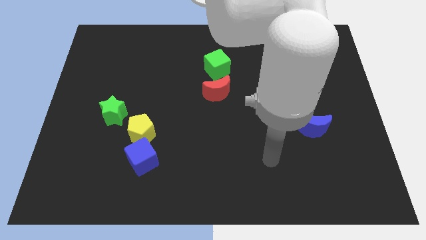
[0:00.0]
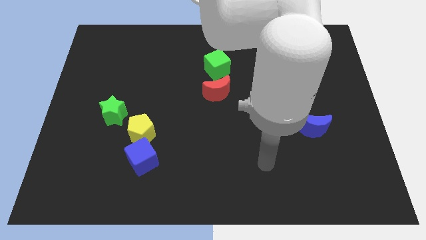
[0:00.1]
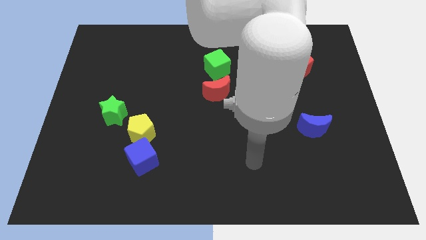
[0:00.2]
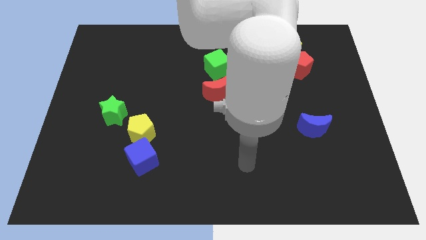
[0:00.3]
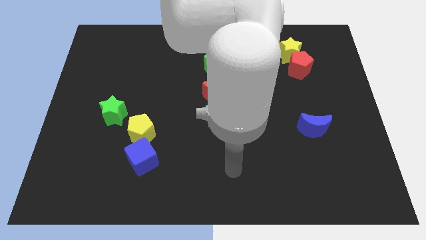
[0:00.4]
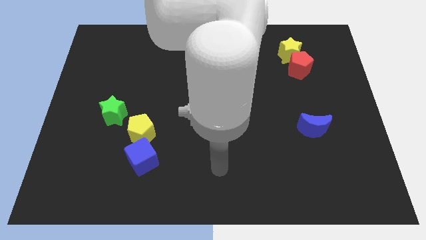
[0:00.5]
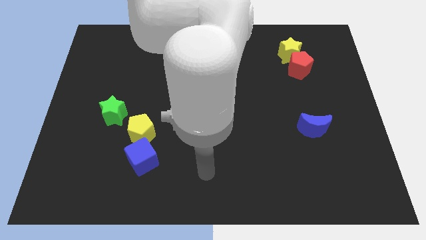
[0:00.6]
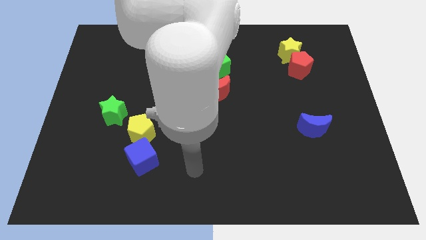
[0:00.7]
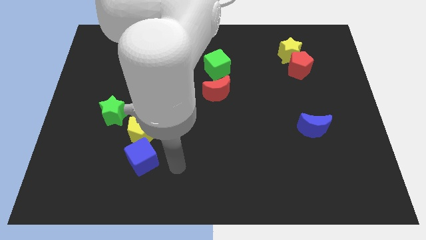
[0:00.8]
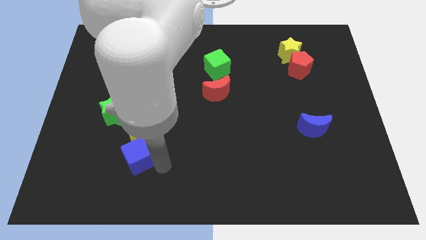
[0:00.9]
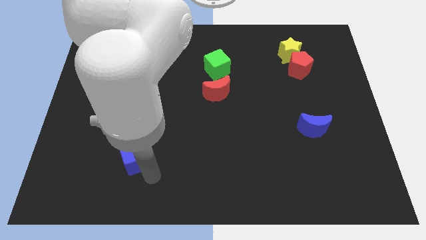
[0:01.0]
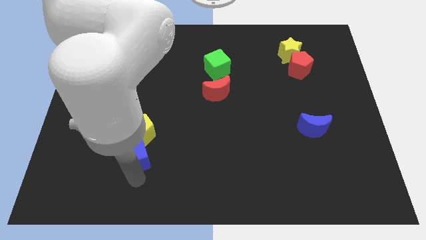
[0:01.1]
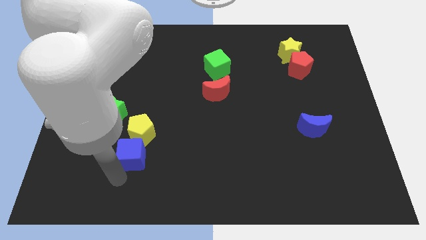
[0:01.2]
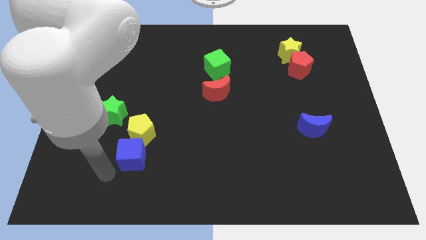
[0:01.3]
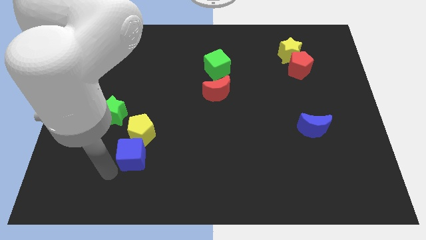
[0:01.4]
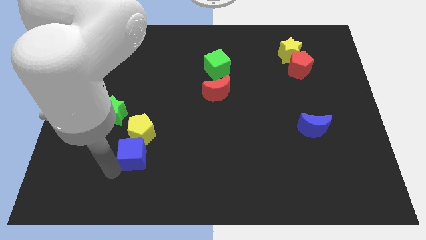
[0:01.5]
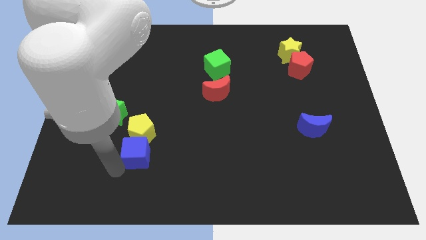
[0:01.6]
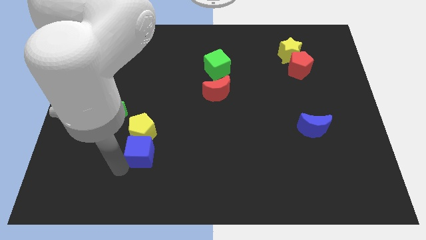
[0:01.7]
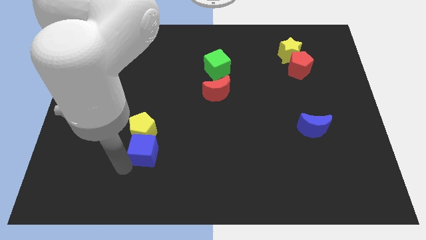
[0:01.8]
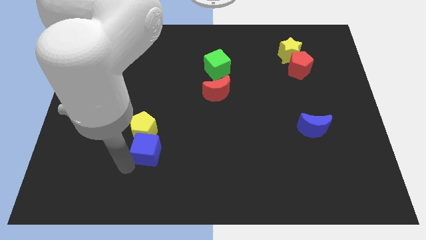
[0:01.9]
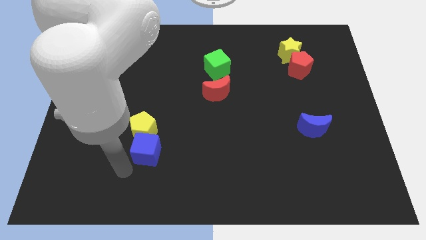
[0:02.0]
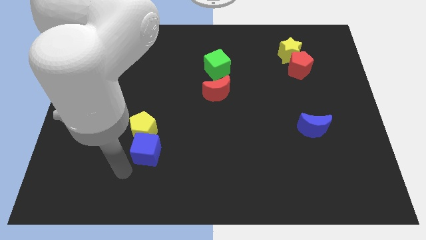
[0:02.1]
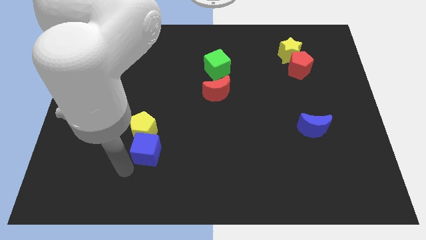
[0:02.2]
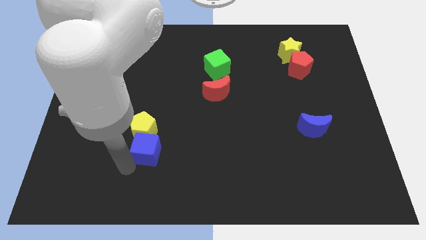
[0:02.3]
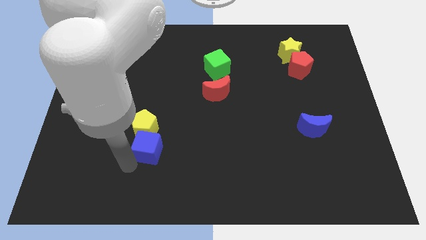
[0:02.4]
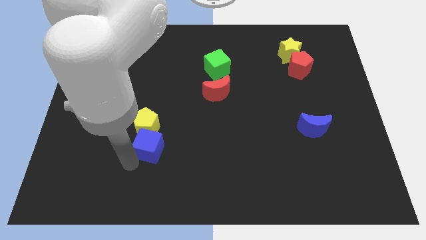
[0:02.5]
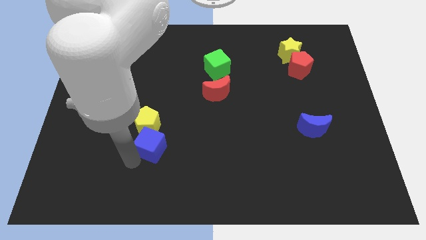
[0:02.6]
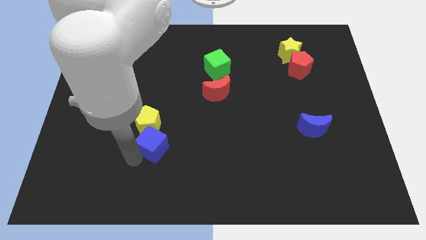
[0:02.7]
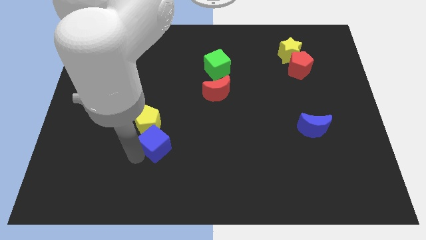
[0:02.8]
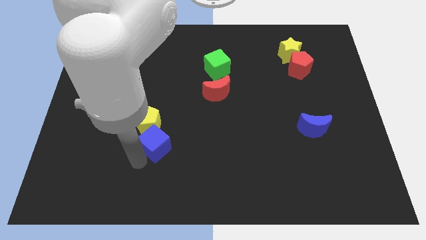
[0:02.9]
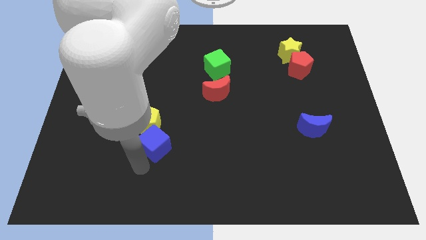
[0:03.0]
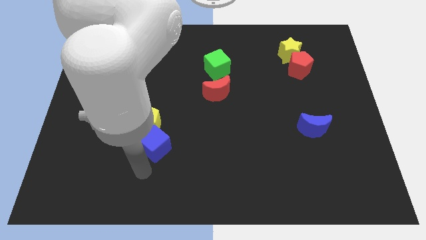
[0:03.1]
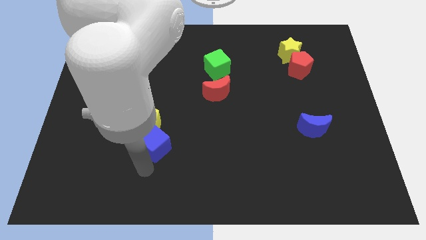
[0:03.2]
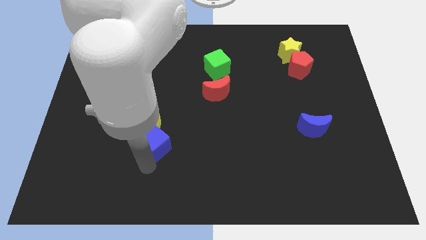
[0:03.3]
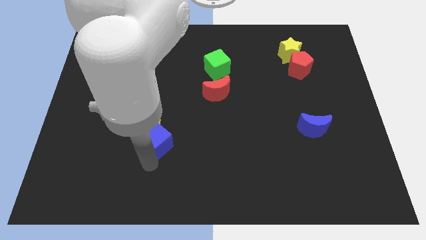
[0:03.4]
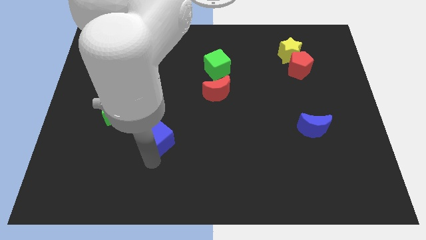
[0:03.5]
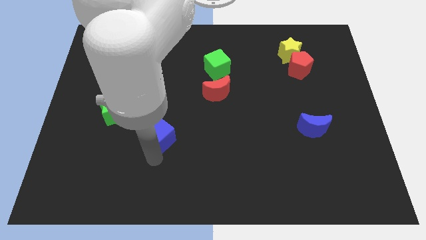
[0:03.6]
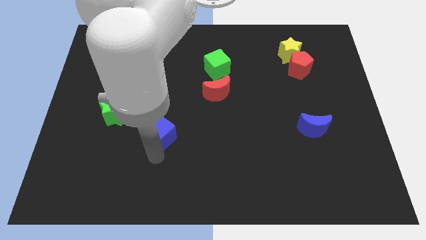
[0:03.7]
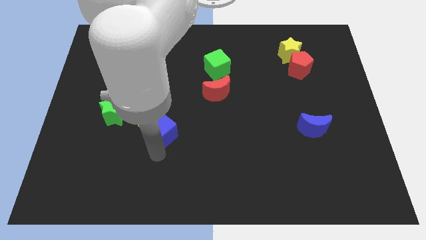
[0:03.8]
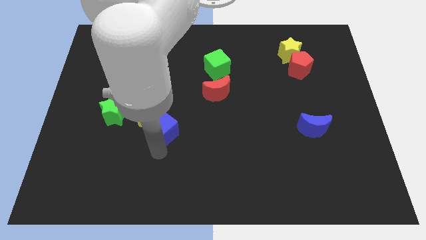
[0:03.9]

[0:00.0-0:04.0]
move the blue cube a little bit up

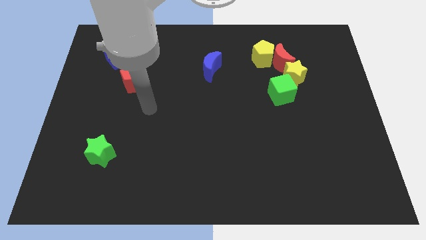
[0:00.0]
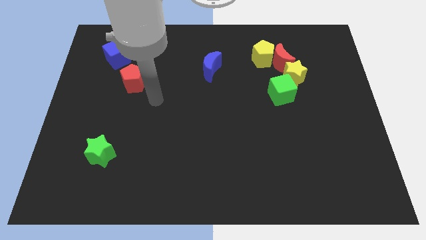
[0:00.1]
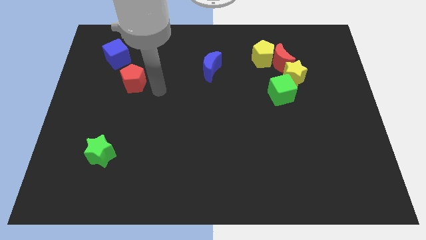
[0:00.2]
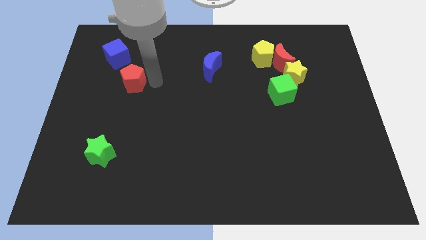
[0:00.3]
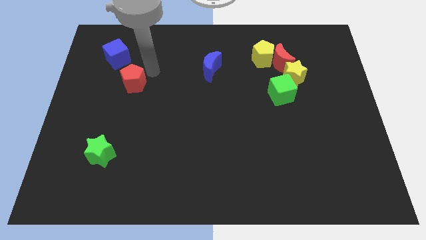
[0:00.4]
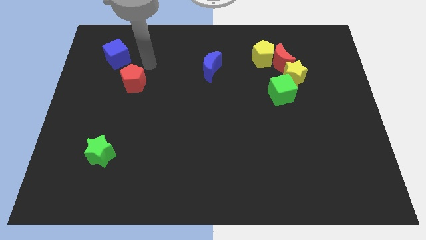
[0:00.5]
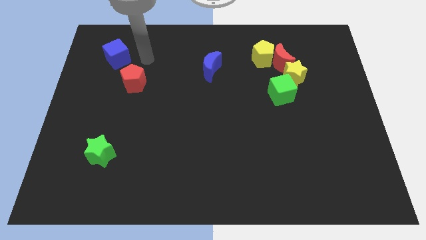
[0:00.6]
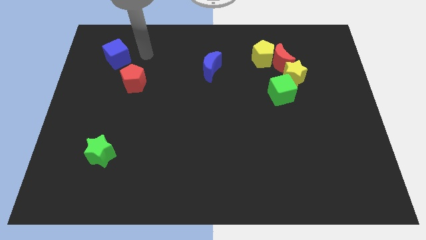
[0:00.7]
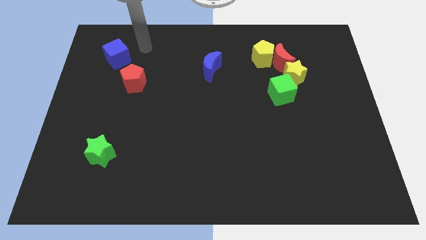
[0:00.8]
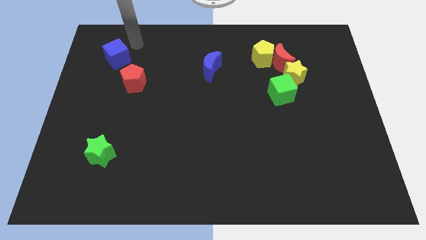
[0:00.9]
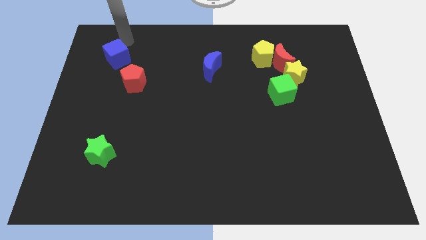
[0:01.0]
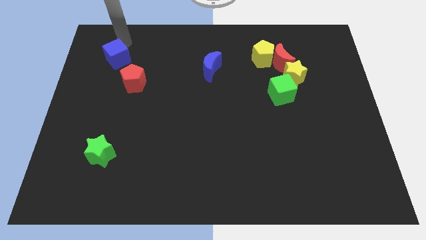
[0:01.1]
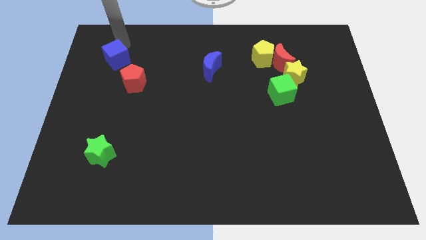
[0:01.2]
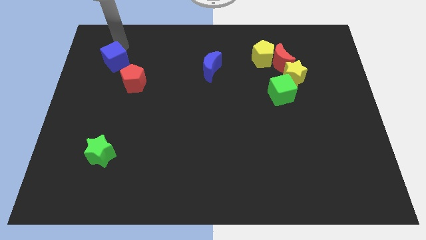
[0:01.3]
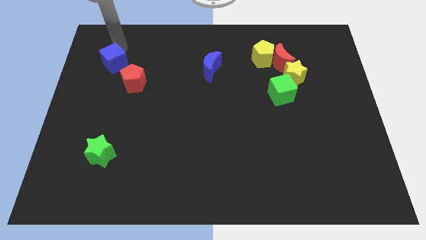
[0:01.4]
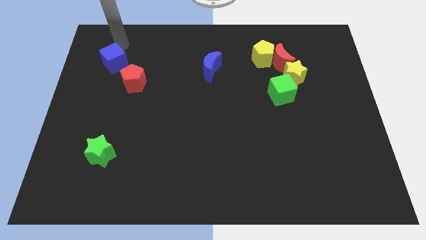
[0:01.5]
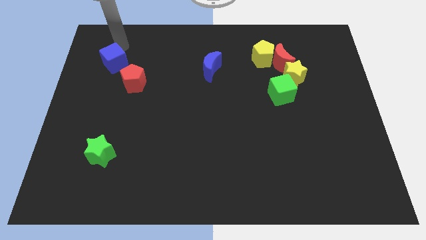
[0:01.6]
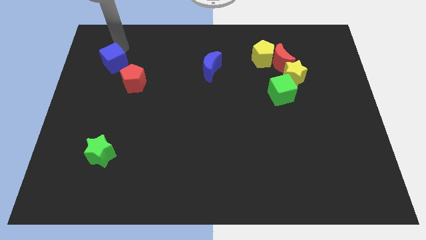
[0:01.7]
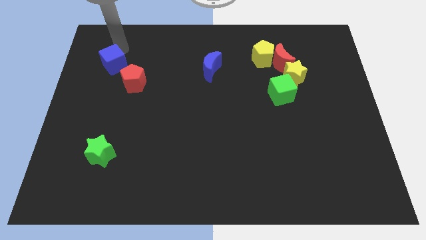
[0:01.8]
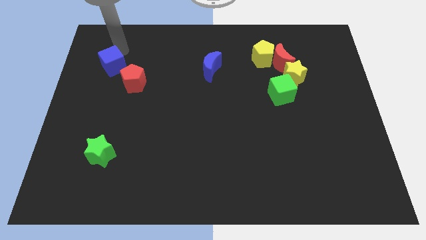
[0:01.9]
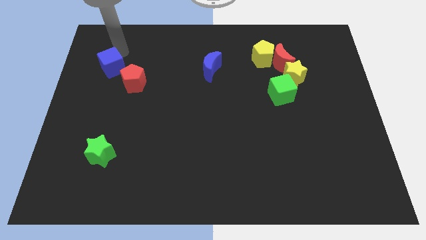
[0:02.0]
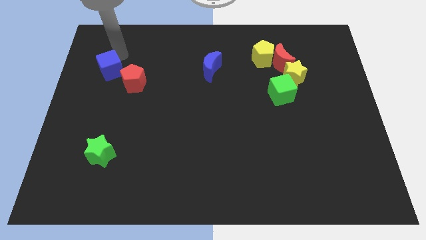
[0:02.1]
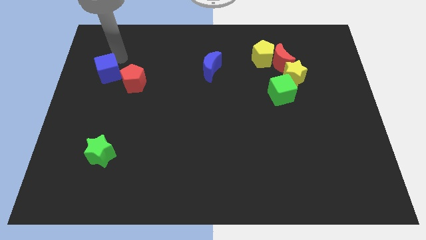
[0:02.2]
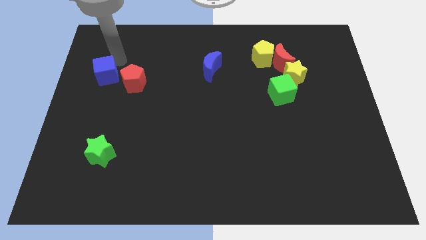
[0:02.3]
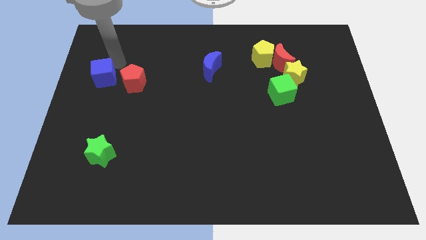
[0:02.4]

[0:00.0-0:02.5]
move the blue cube down slightly

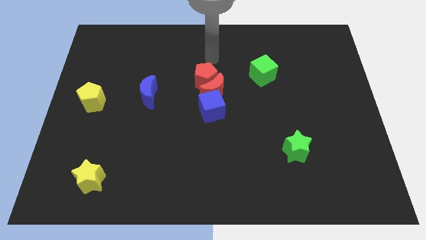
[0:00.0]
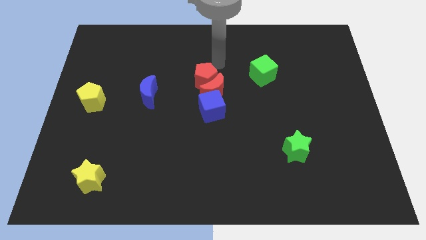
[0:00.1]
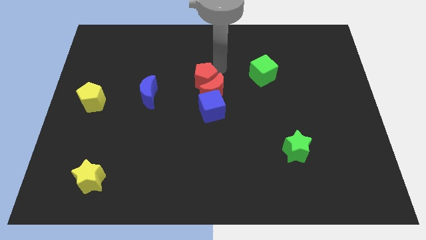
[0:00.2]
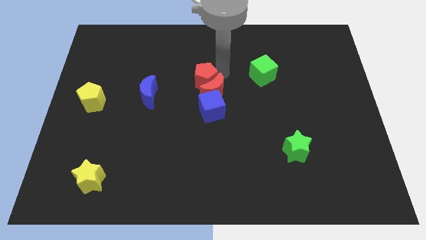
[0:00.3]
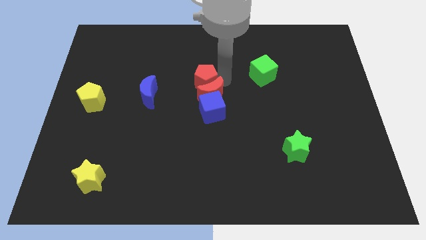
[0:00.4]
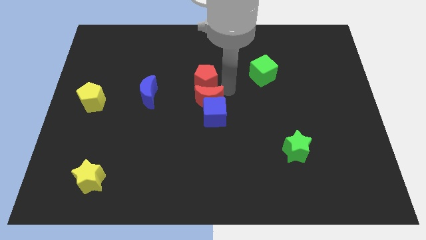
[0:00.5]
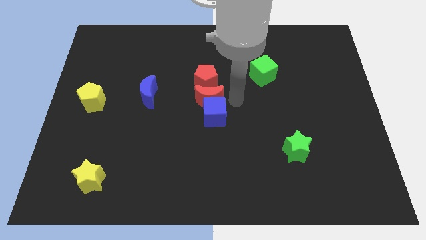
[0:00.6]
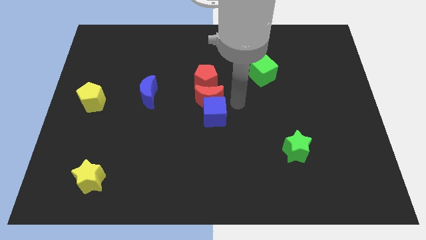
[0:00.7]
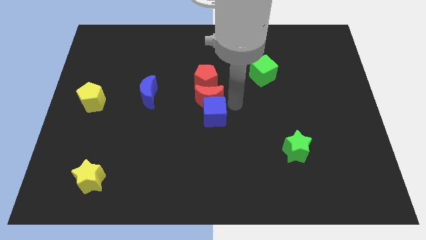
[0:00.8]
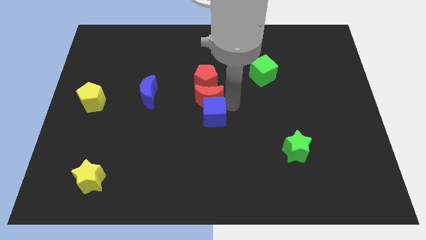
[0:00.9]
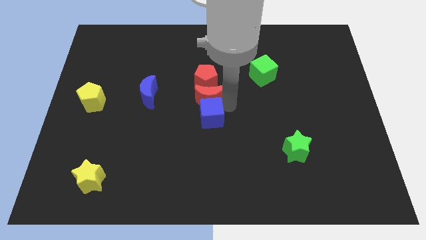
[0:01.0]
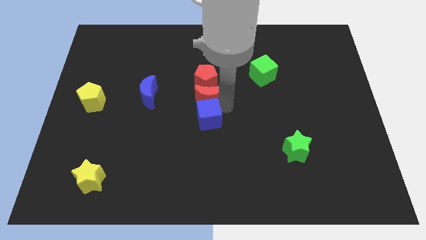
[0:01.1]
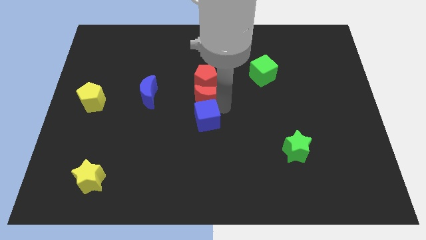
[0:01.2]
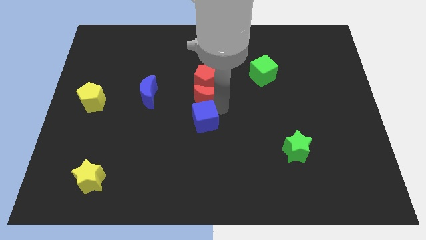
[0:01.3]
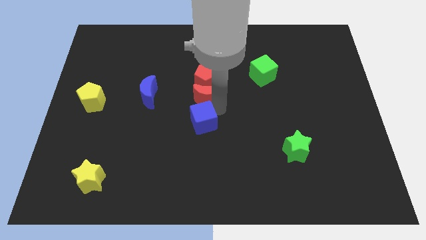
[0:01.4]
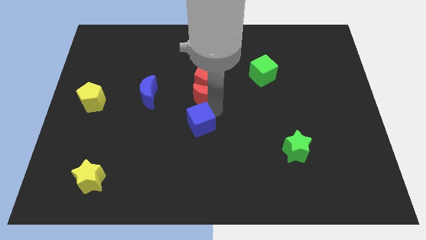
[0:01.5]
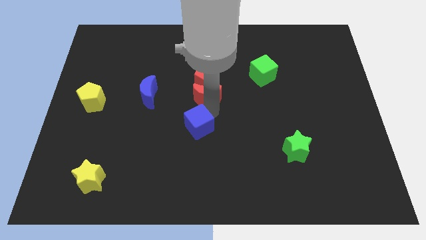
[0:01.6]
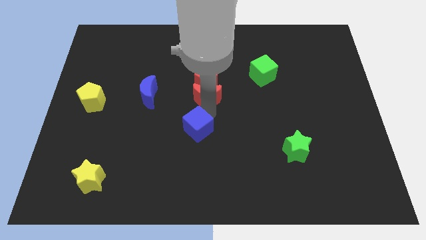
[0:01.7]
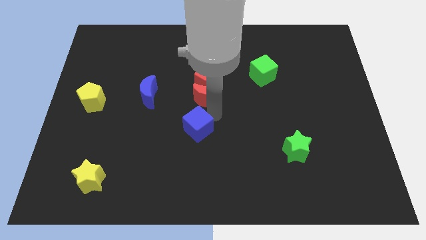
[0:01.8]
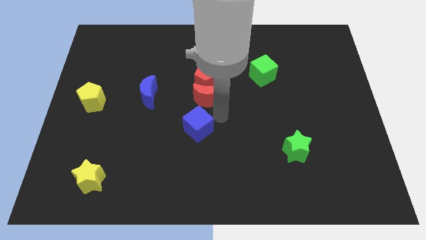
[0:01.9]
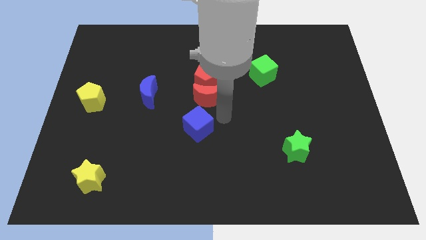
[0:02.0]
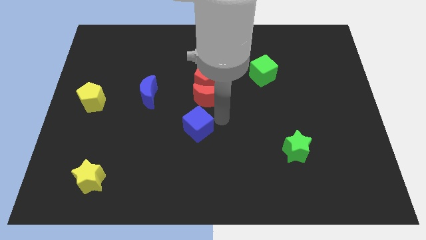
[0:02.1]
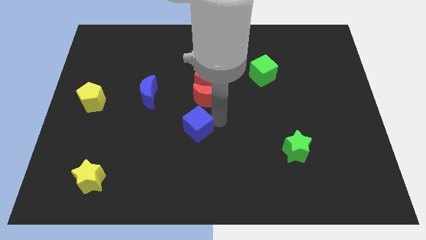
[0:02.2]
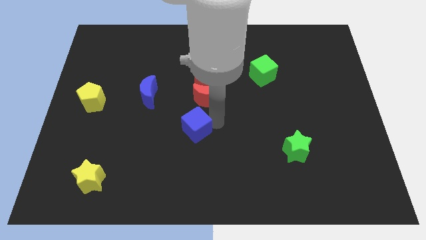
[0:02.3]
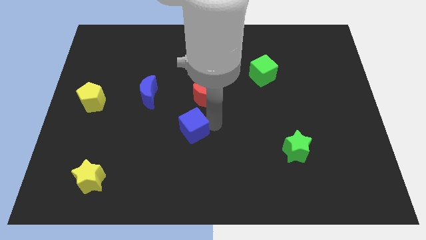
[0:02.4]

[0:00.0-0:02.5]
slightly move the blue cube down and then to the left
